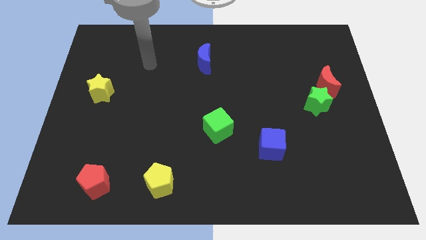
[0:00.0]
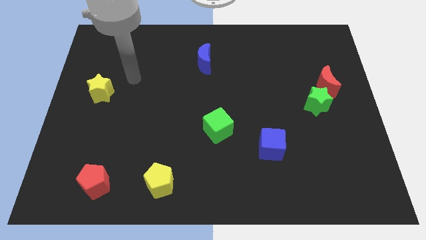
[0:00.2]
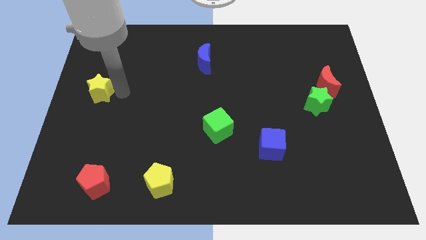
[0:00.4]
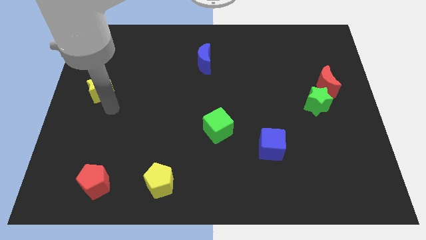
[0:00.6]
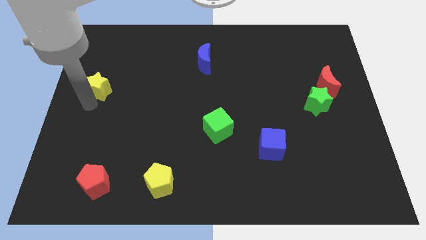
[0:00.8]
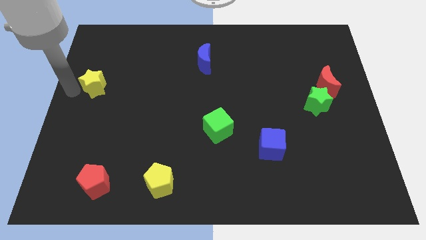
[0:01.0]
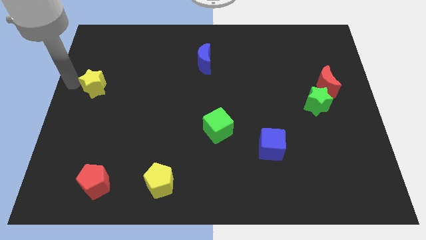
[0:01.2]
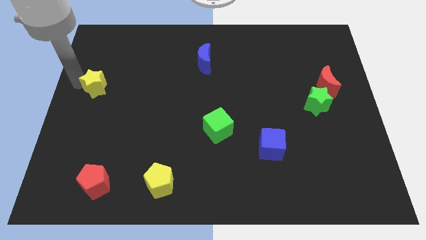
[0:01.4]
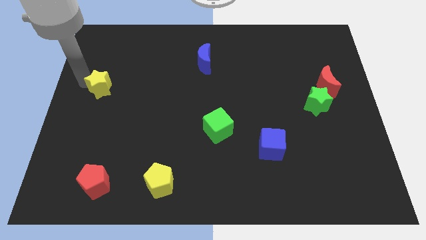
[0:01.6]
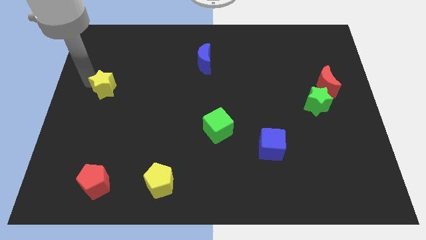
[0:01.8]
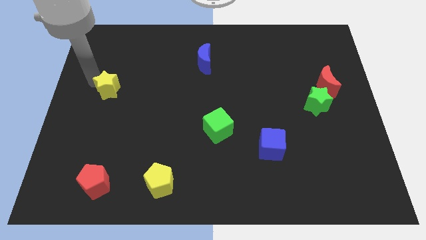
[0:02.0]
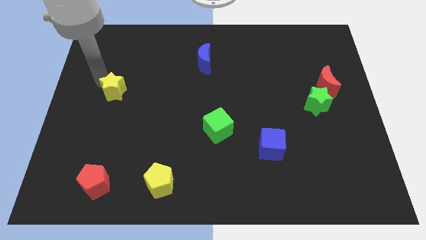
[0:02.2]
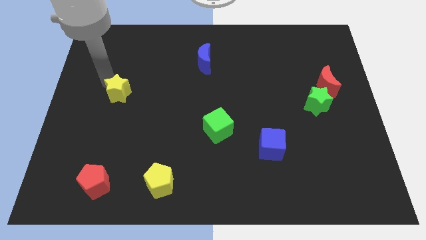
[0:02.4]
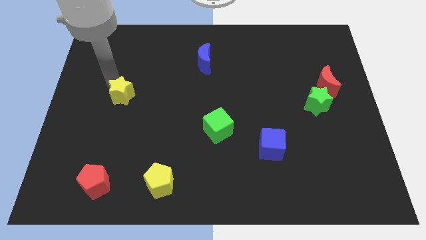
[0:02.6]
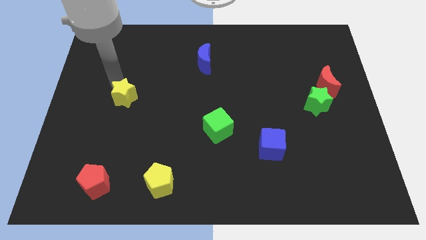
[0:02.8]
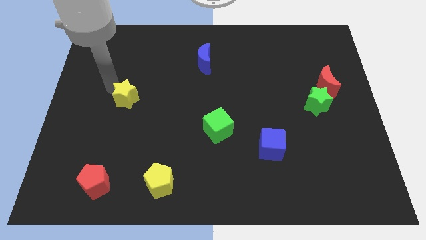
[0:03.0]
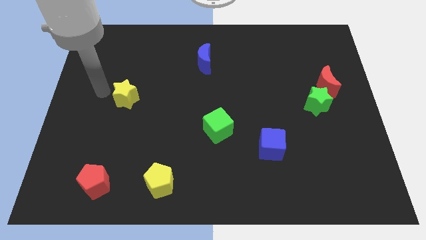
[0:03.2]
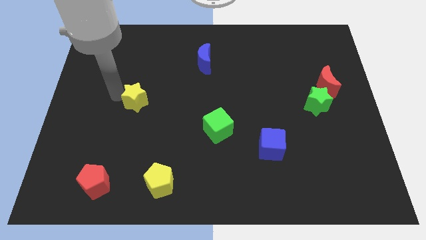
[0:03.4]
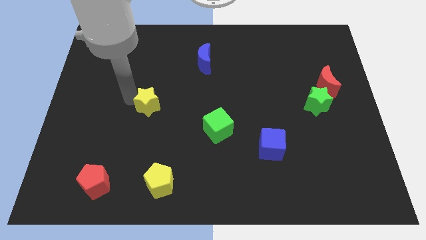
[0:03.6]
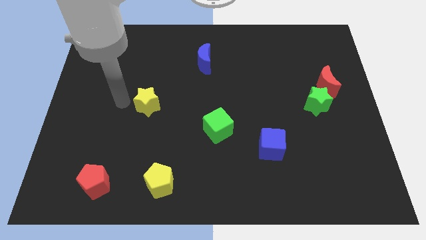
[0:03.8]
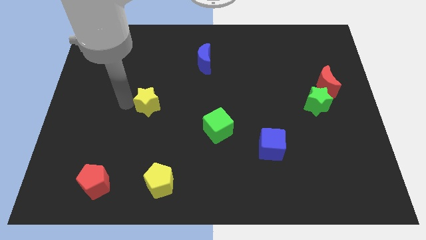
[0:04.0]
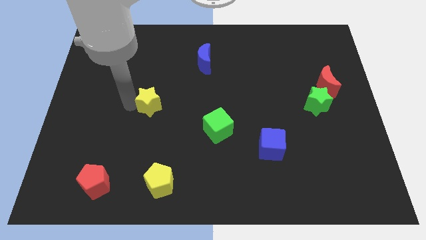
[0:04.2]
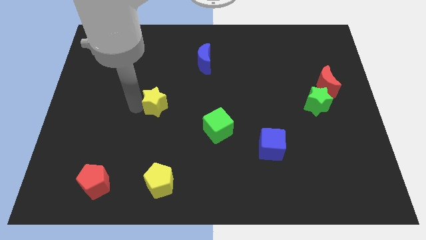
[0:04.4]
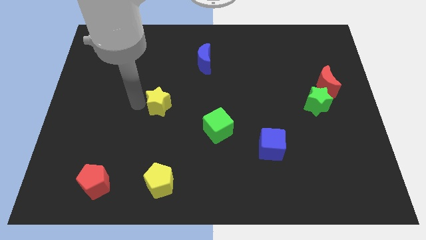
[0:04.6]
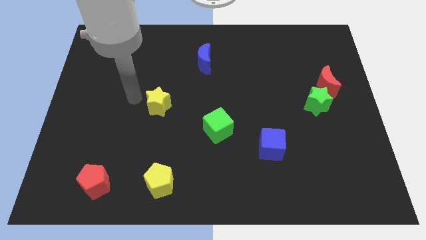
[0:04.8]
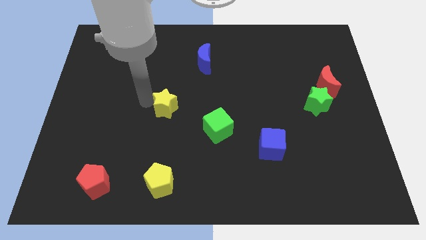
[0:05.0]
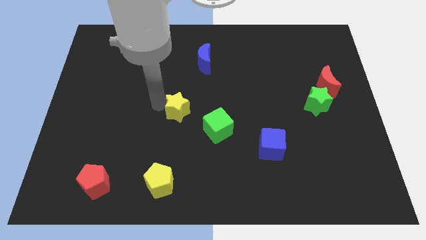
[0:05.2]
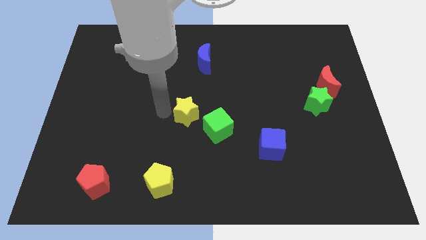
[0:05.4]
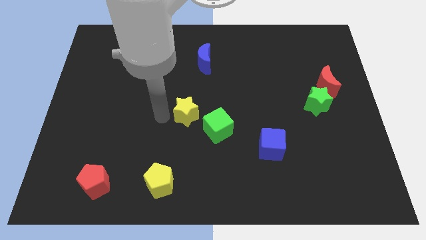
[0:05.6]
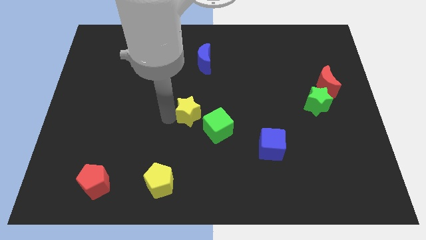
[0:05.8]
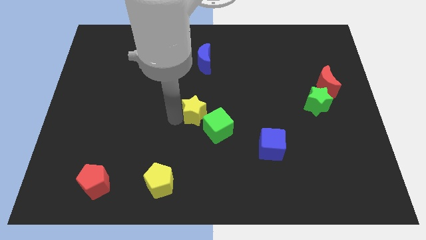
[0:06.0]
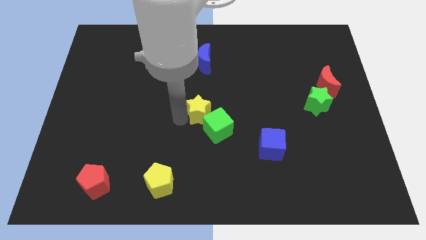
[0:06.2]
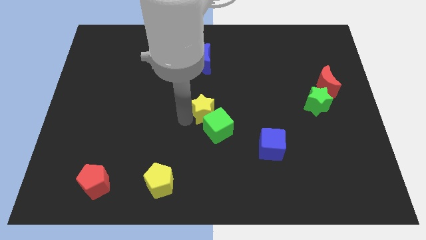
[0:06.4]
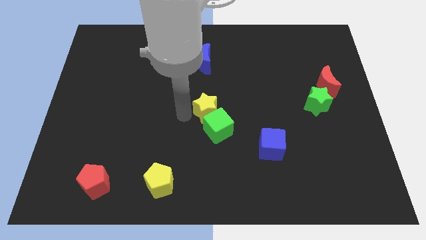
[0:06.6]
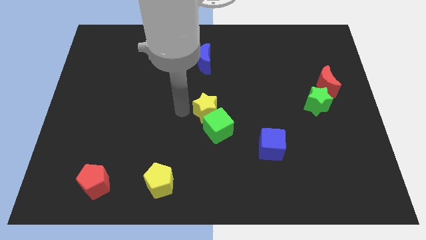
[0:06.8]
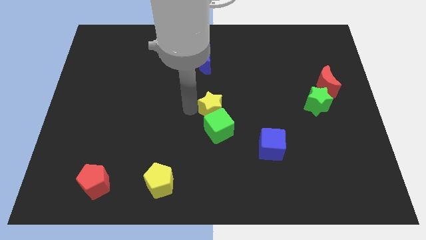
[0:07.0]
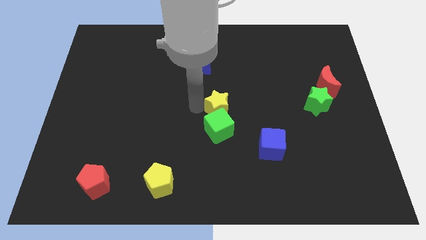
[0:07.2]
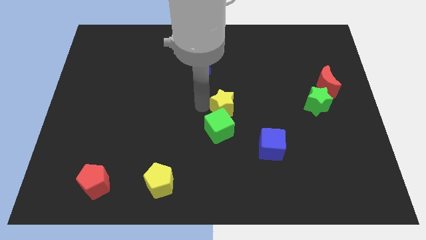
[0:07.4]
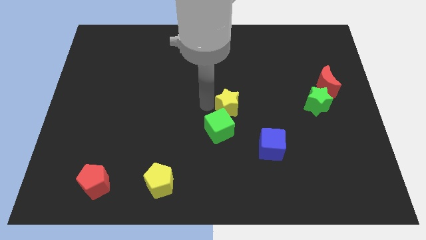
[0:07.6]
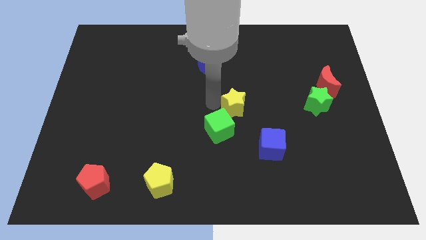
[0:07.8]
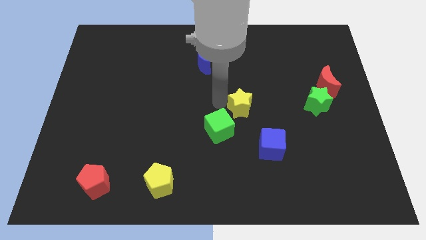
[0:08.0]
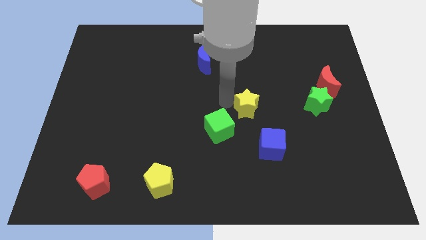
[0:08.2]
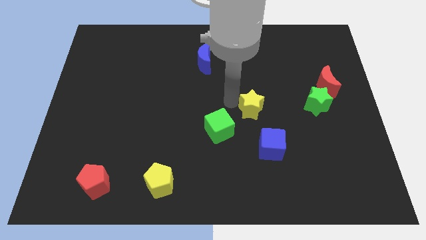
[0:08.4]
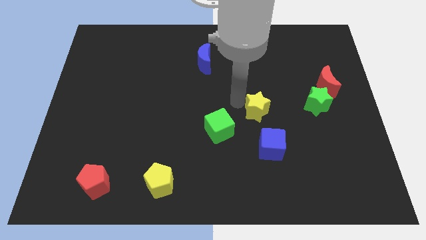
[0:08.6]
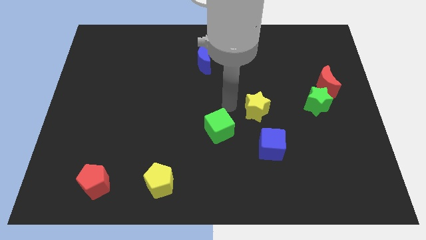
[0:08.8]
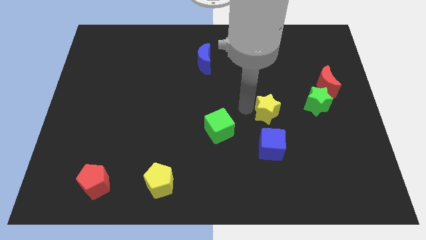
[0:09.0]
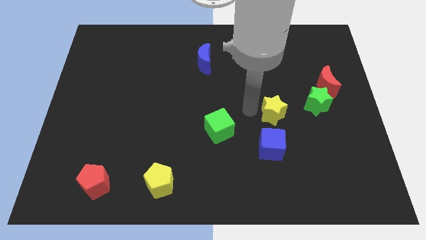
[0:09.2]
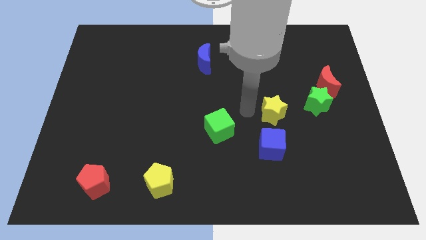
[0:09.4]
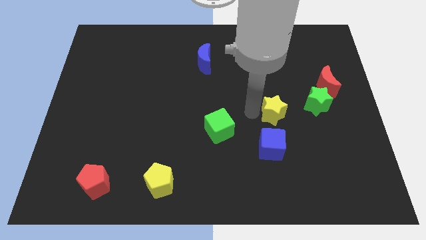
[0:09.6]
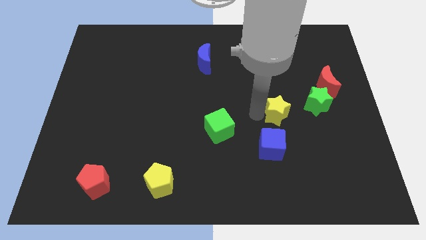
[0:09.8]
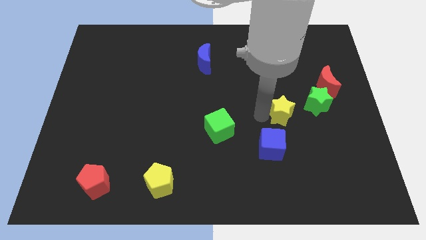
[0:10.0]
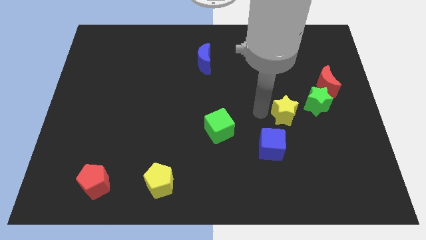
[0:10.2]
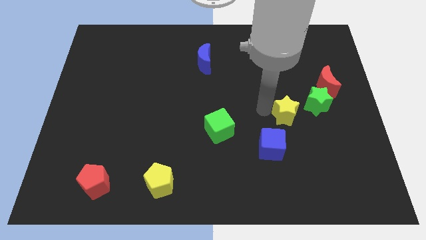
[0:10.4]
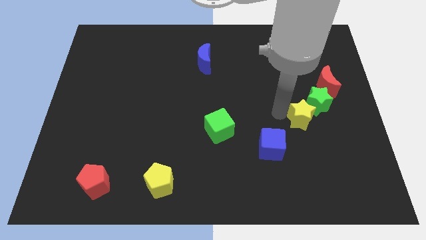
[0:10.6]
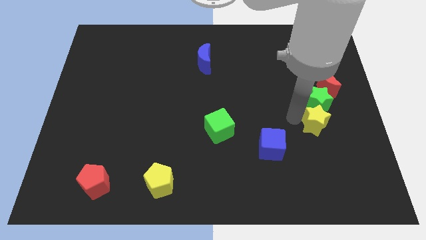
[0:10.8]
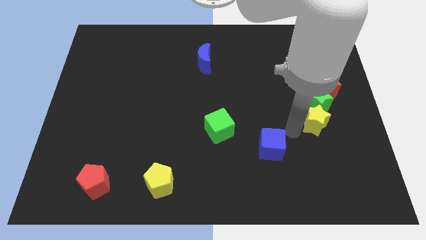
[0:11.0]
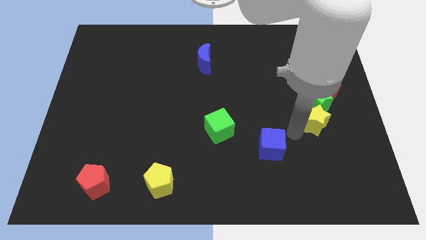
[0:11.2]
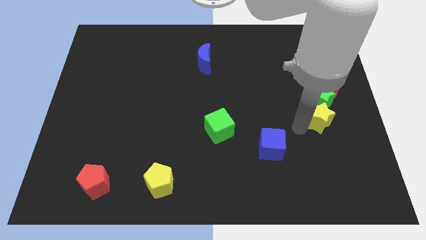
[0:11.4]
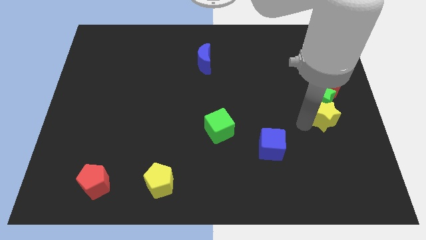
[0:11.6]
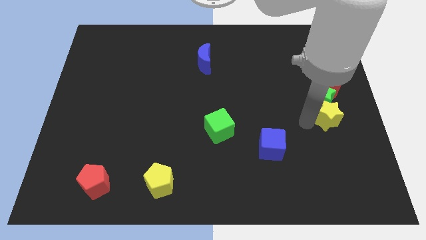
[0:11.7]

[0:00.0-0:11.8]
put the yellow star to the center right
